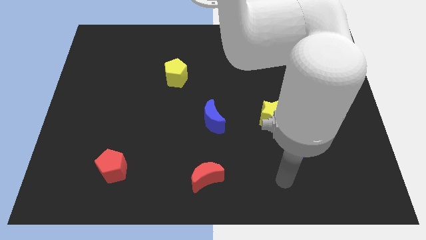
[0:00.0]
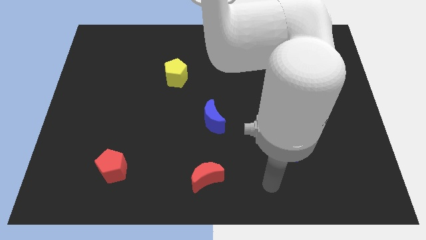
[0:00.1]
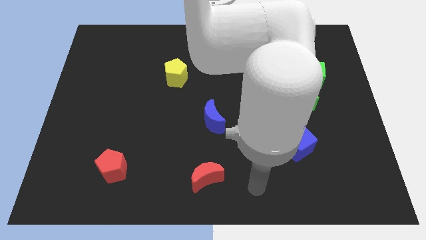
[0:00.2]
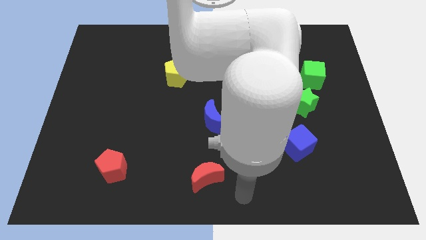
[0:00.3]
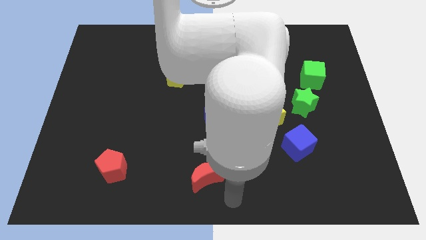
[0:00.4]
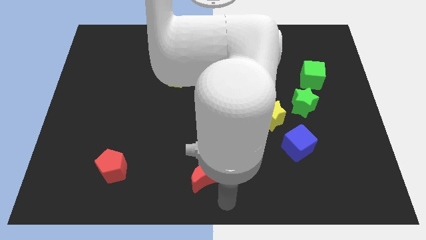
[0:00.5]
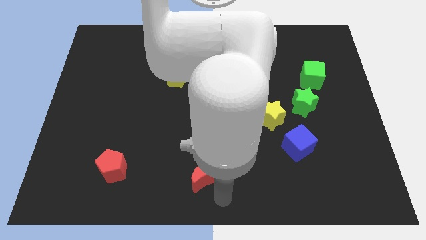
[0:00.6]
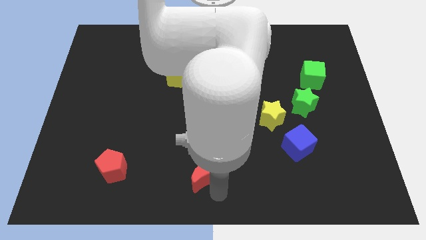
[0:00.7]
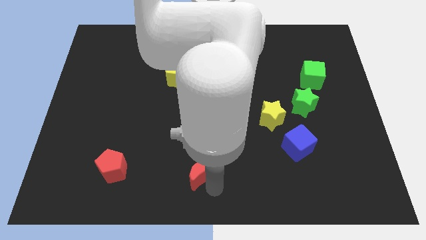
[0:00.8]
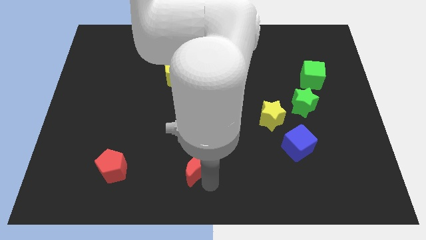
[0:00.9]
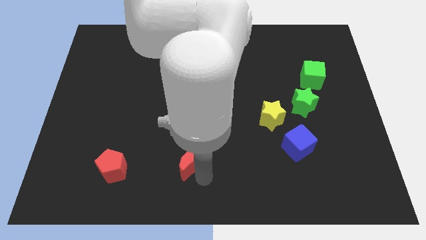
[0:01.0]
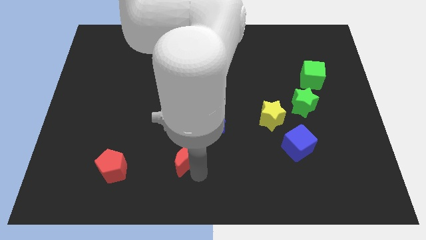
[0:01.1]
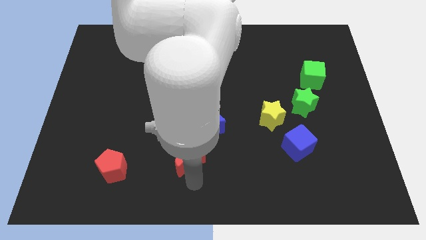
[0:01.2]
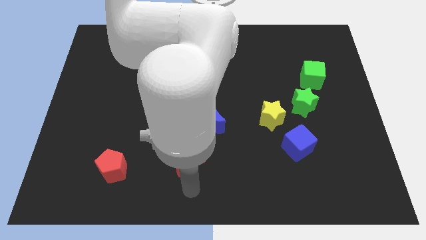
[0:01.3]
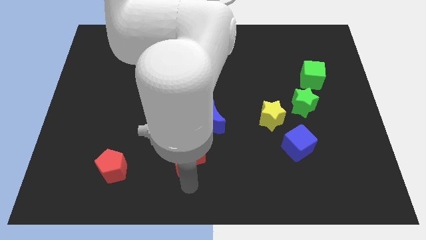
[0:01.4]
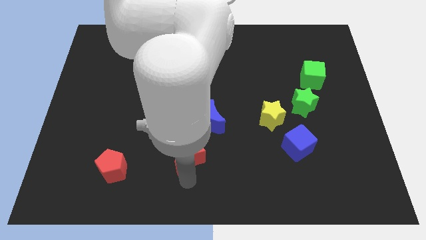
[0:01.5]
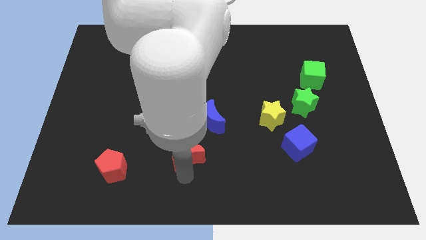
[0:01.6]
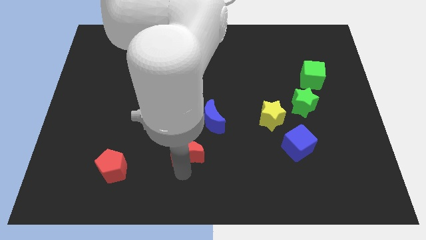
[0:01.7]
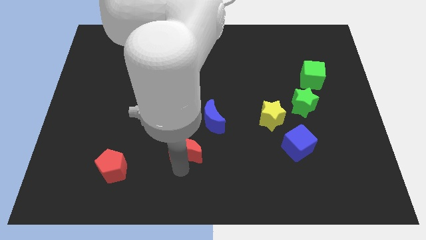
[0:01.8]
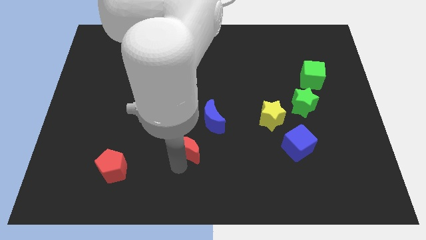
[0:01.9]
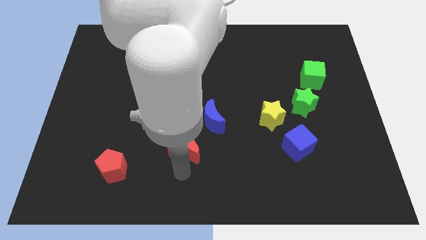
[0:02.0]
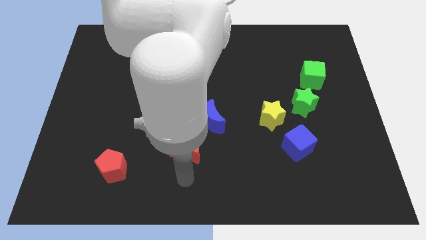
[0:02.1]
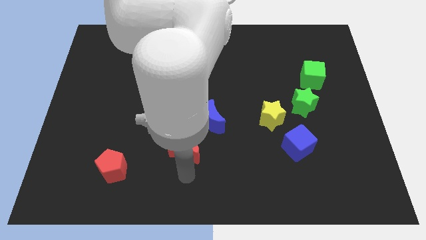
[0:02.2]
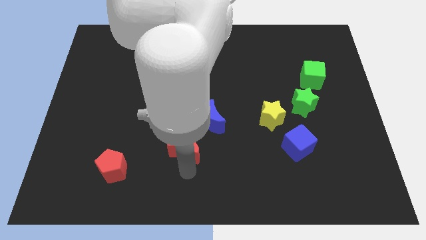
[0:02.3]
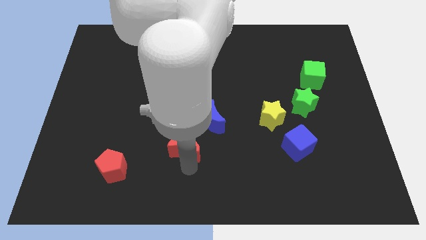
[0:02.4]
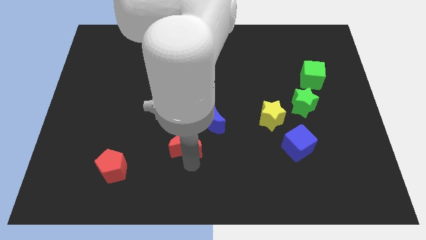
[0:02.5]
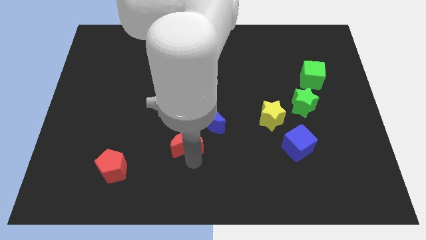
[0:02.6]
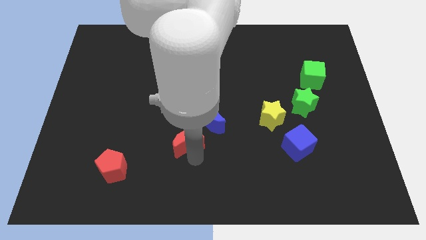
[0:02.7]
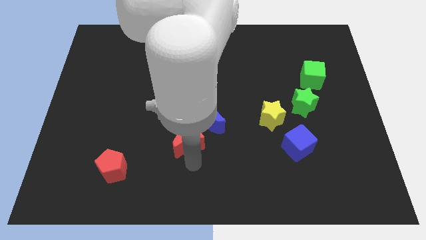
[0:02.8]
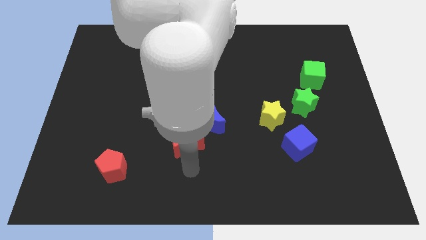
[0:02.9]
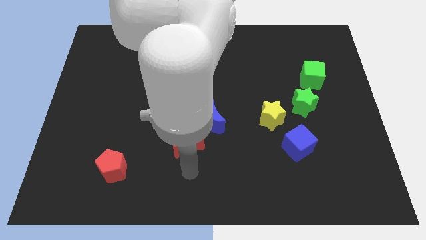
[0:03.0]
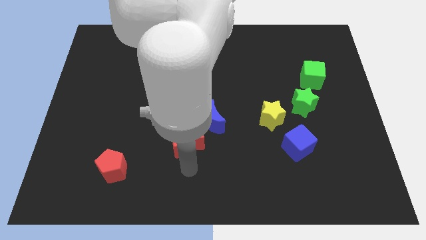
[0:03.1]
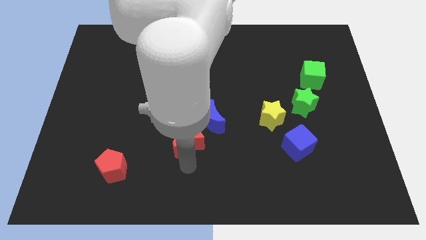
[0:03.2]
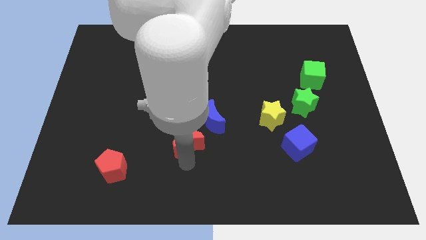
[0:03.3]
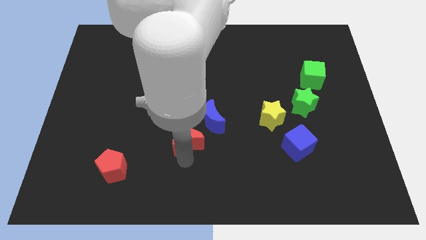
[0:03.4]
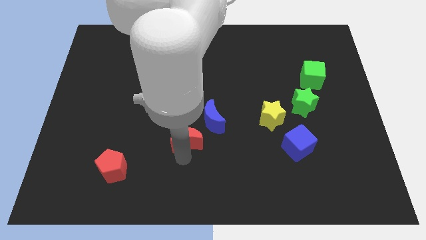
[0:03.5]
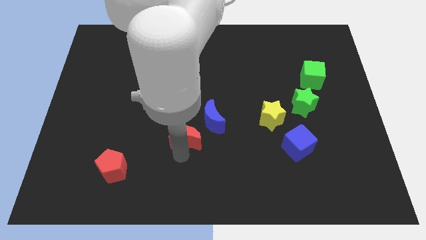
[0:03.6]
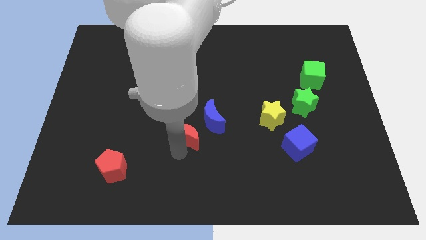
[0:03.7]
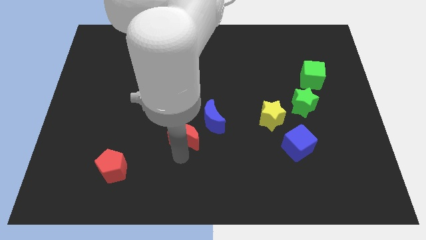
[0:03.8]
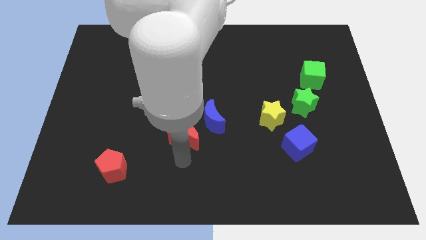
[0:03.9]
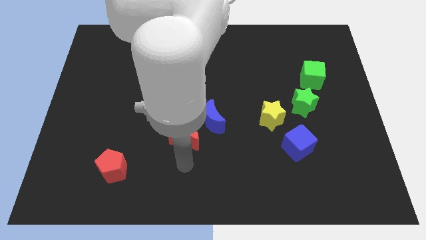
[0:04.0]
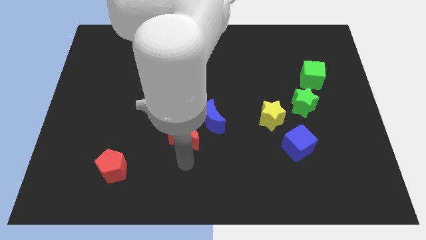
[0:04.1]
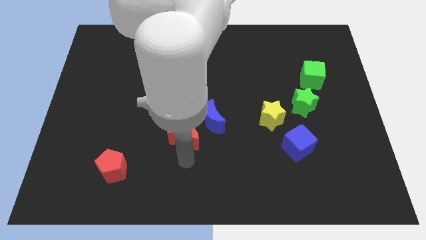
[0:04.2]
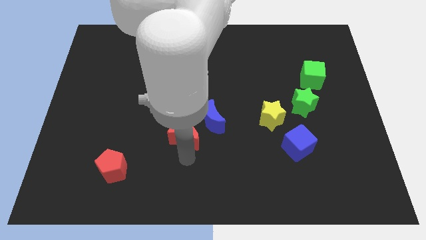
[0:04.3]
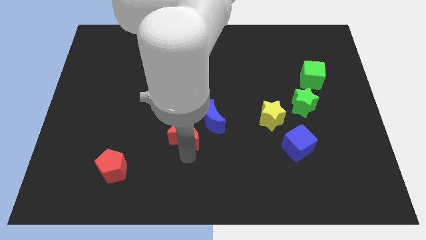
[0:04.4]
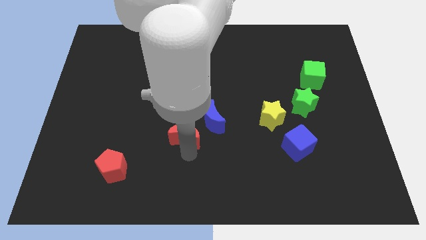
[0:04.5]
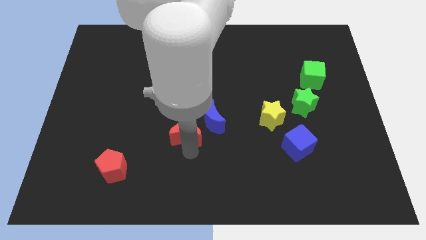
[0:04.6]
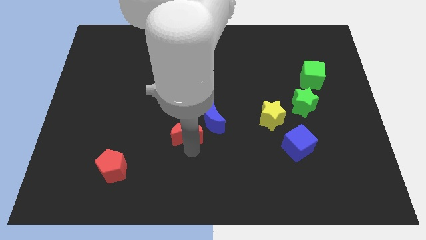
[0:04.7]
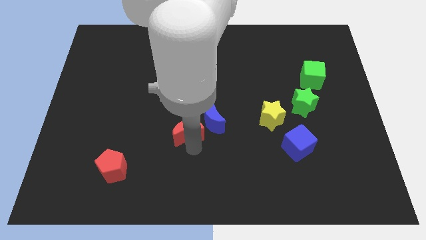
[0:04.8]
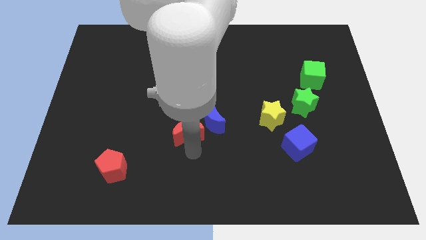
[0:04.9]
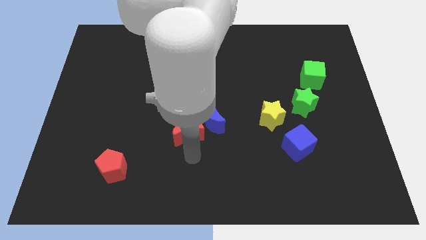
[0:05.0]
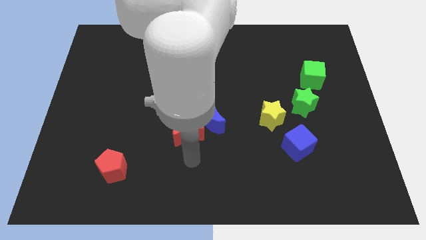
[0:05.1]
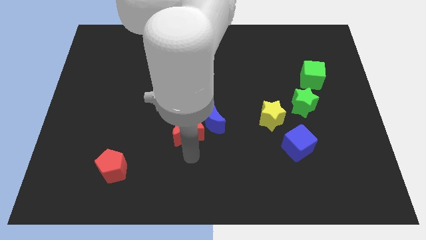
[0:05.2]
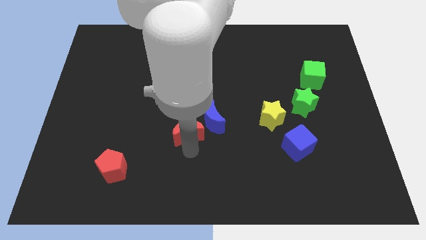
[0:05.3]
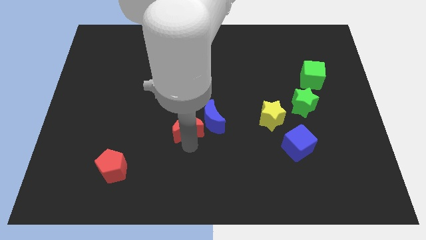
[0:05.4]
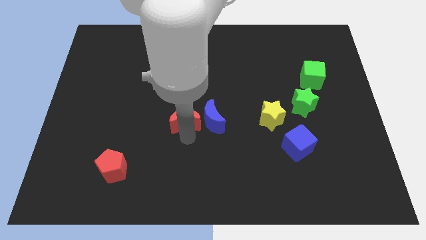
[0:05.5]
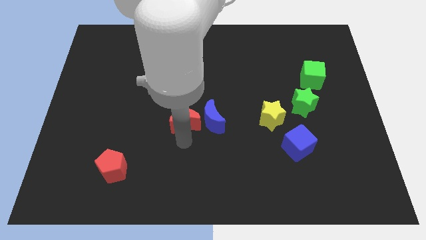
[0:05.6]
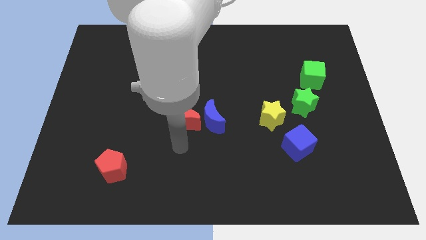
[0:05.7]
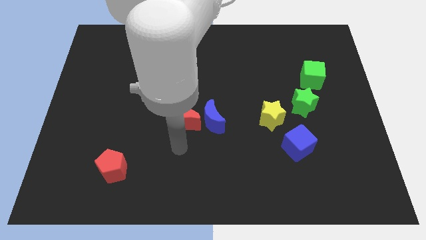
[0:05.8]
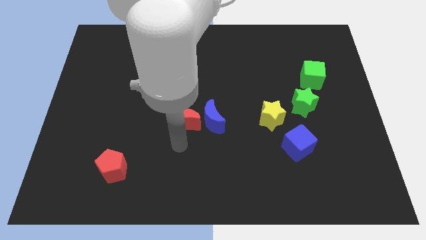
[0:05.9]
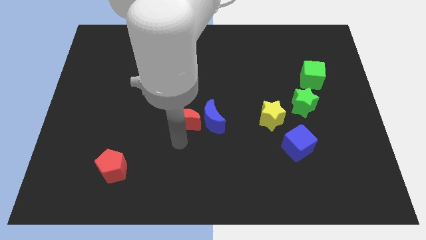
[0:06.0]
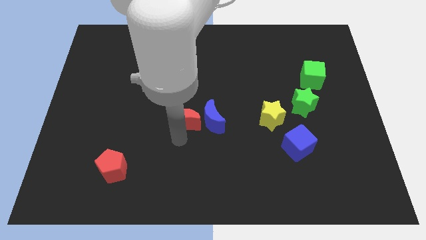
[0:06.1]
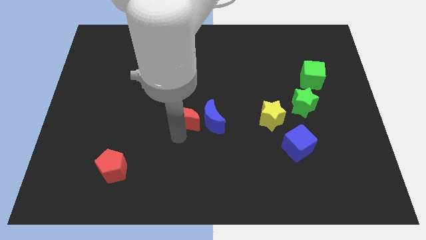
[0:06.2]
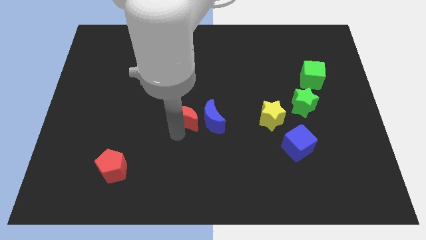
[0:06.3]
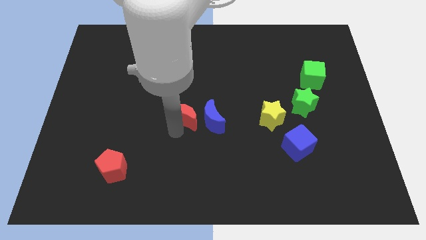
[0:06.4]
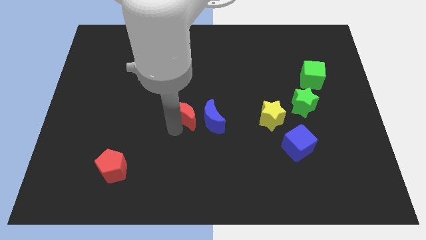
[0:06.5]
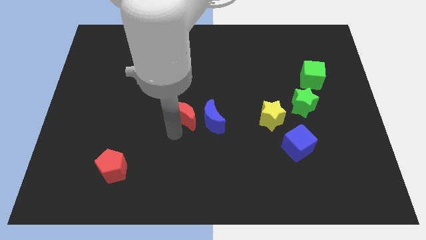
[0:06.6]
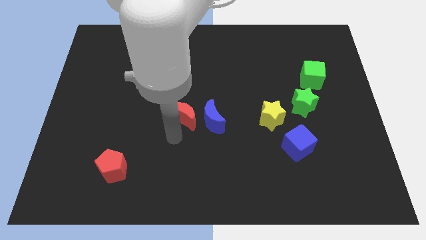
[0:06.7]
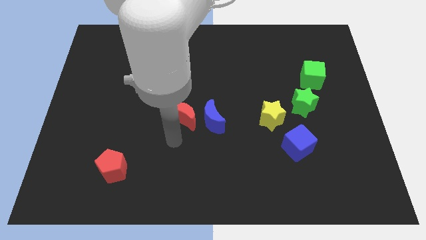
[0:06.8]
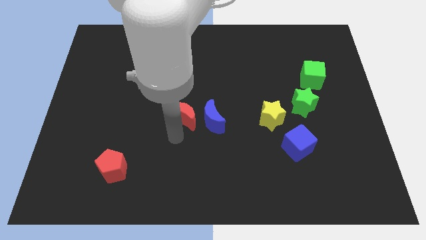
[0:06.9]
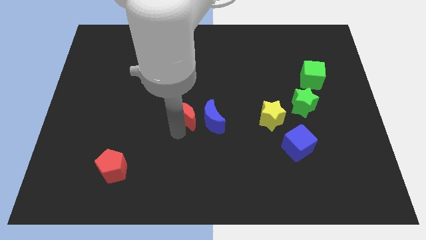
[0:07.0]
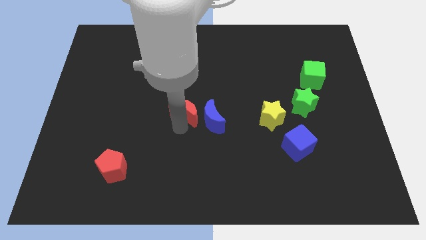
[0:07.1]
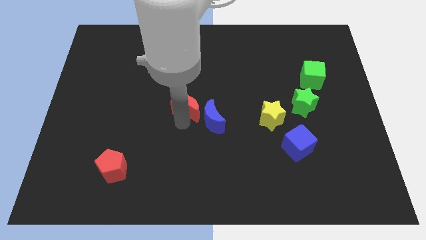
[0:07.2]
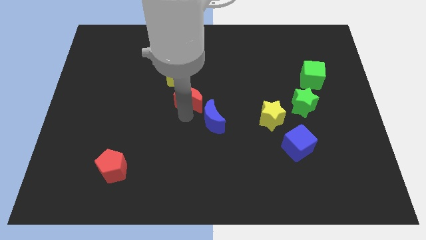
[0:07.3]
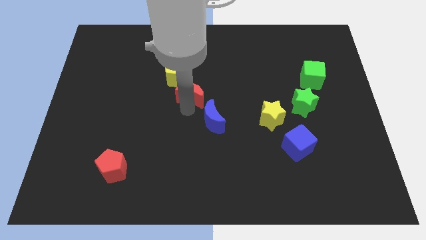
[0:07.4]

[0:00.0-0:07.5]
move the red moon up

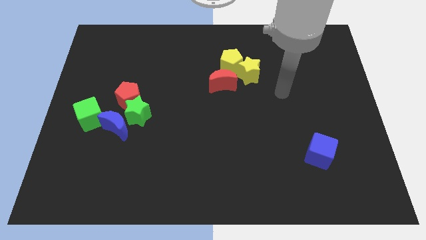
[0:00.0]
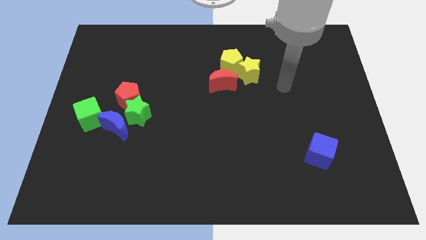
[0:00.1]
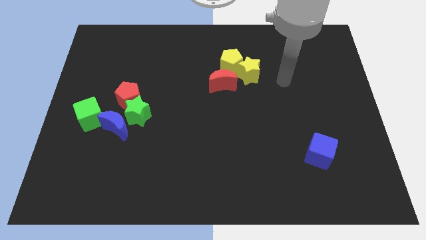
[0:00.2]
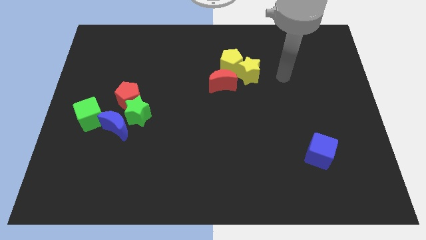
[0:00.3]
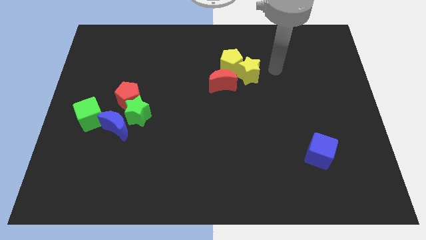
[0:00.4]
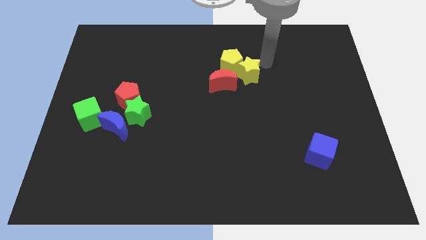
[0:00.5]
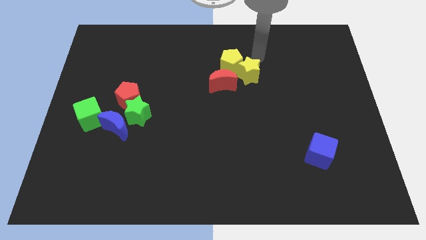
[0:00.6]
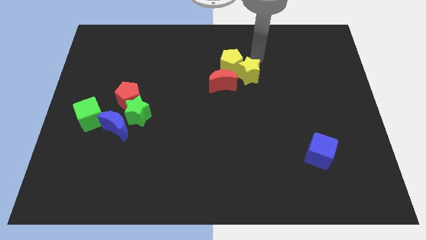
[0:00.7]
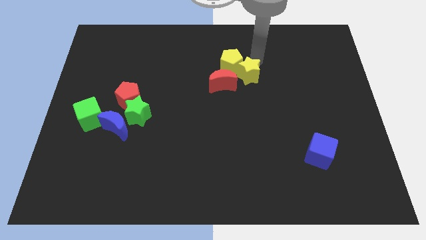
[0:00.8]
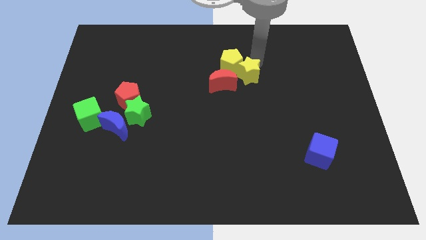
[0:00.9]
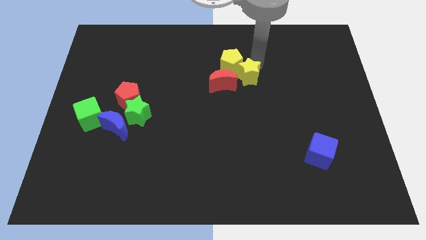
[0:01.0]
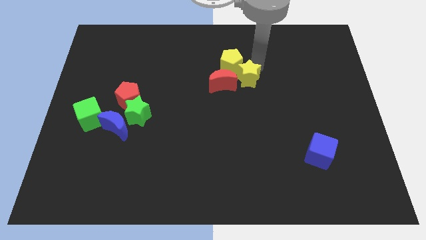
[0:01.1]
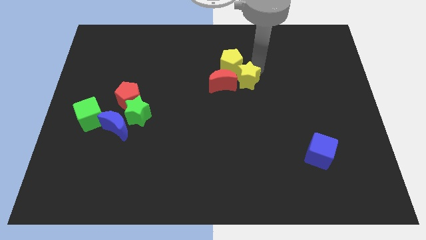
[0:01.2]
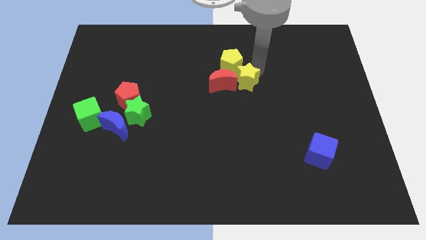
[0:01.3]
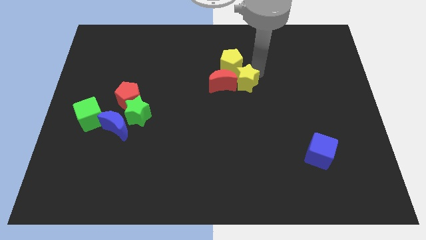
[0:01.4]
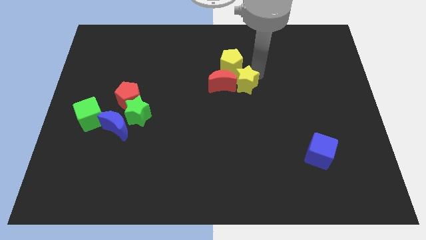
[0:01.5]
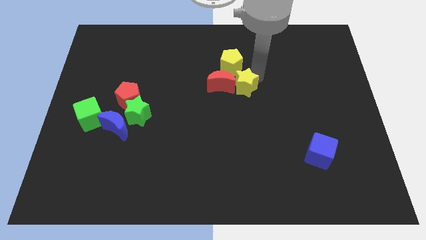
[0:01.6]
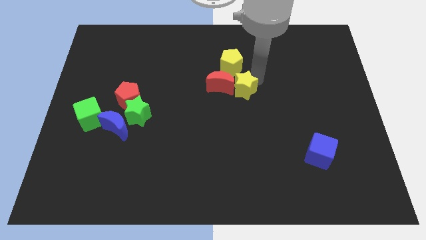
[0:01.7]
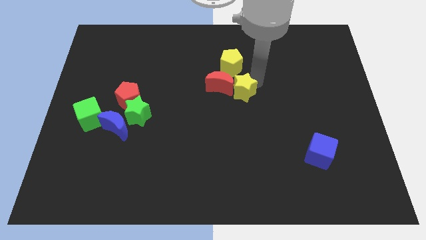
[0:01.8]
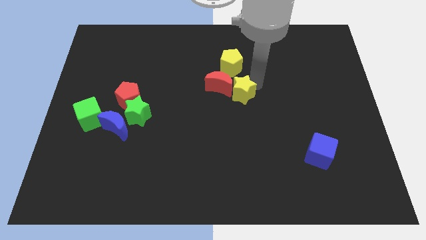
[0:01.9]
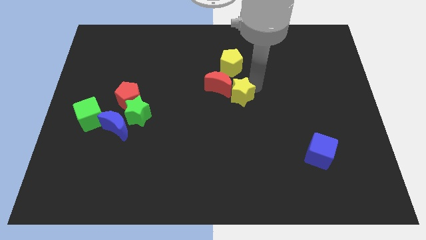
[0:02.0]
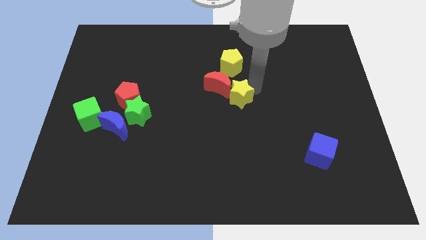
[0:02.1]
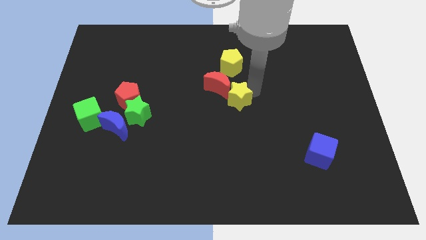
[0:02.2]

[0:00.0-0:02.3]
slide the yellow star a bit diagonally downwards and to the left
